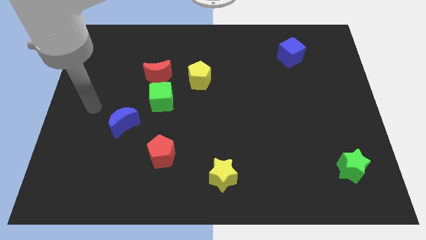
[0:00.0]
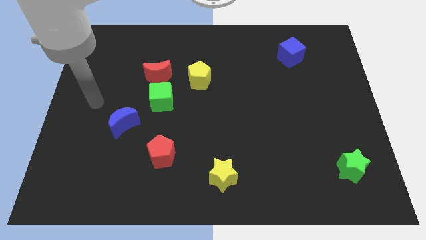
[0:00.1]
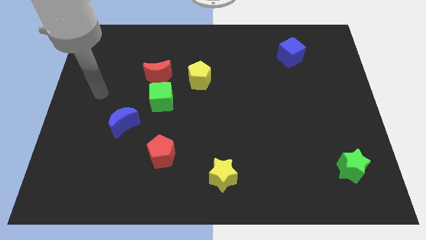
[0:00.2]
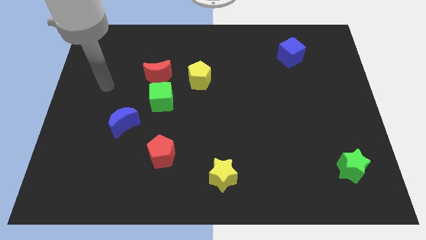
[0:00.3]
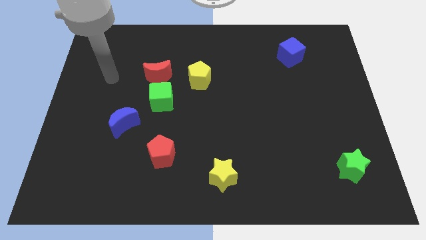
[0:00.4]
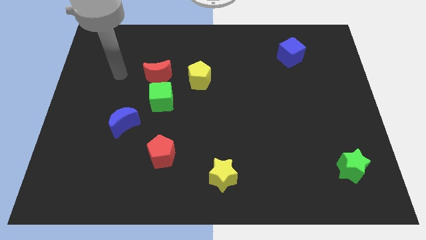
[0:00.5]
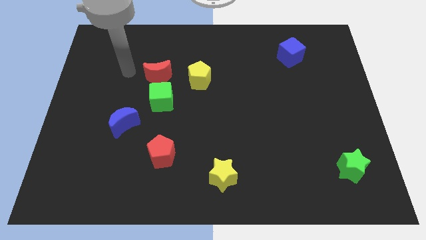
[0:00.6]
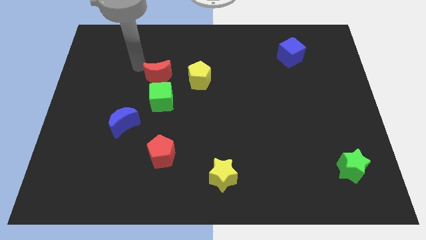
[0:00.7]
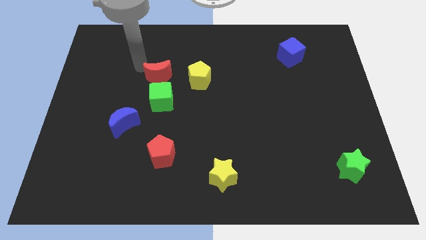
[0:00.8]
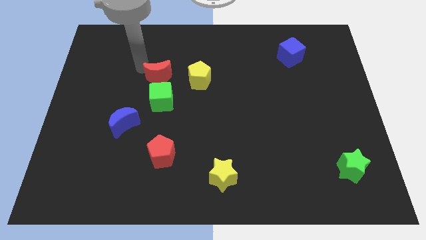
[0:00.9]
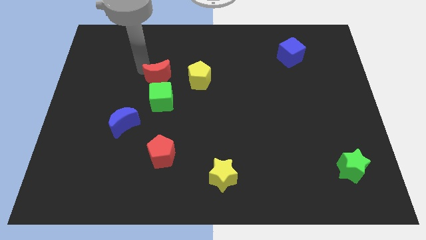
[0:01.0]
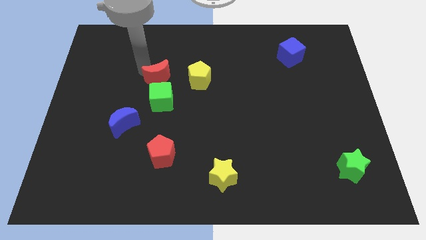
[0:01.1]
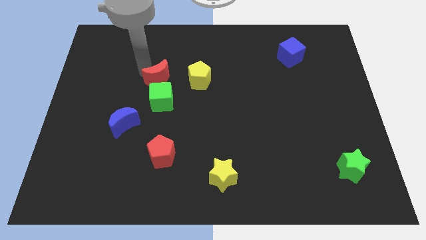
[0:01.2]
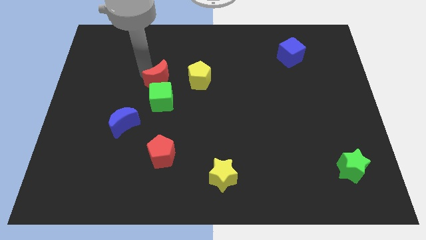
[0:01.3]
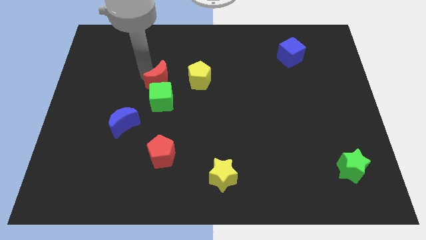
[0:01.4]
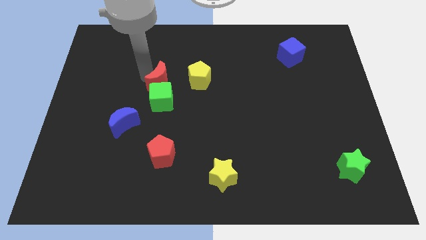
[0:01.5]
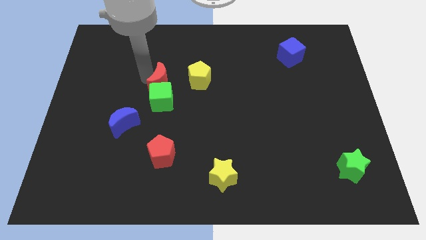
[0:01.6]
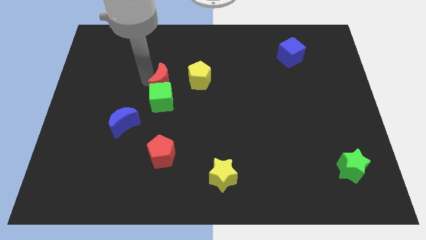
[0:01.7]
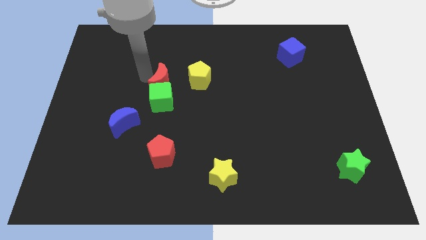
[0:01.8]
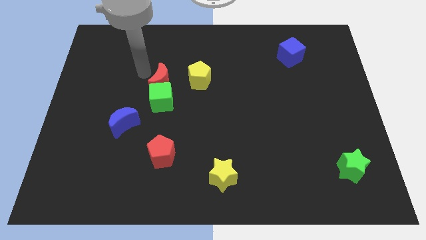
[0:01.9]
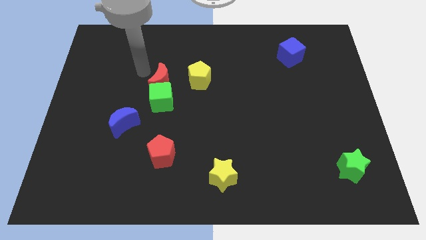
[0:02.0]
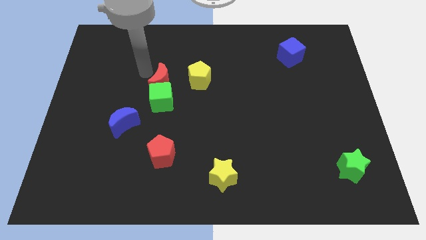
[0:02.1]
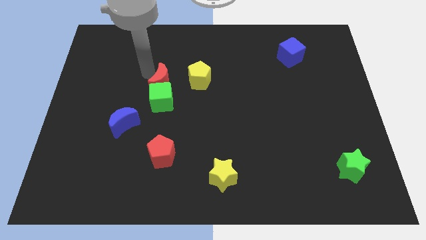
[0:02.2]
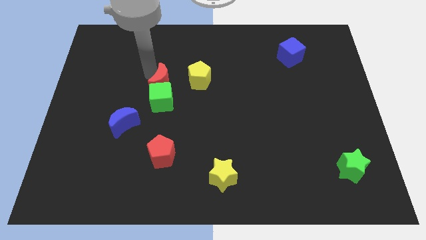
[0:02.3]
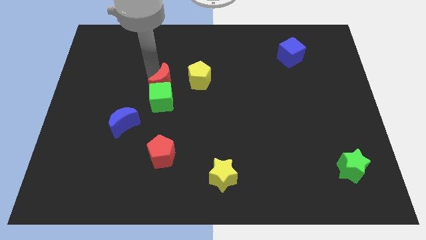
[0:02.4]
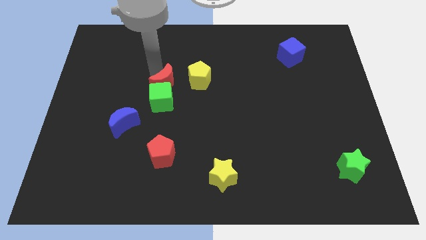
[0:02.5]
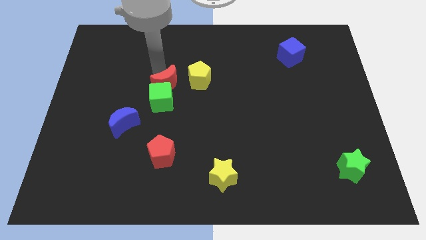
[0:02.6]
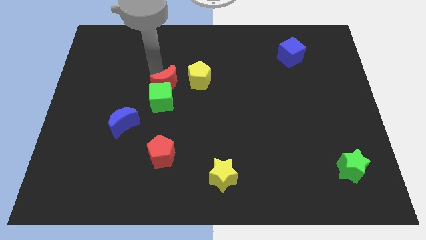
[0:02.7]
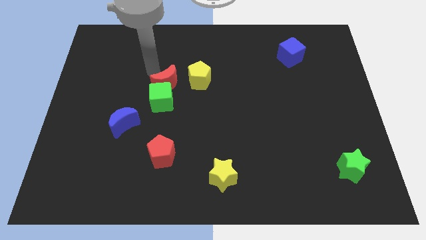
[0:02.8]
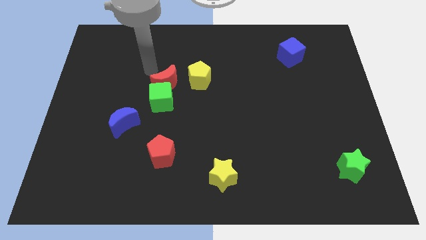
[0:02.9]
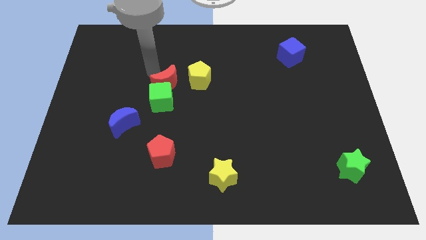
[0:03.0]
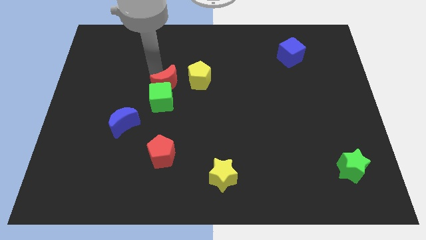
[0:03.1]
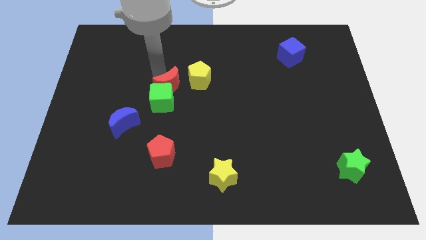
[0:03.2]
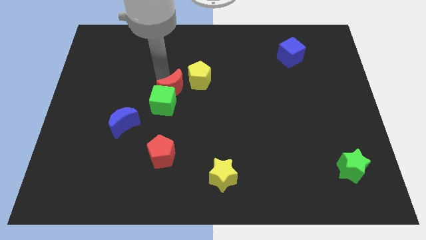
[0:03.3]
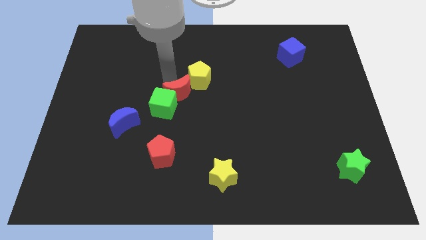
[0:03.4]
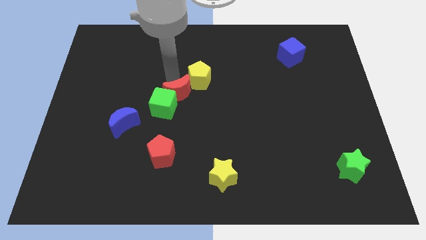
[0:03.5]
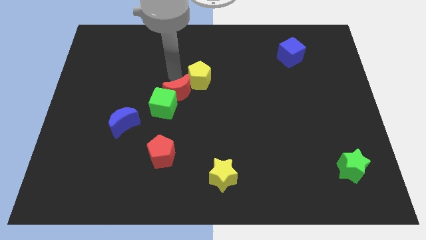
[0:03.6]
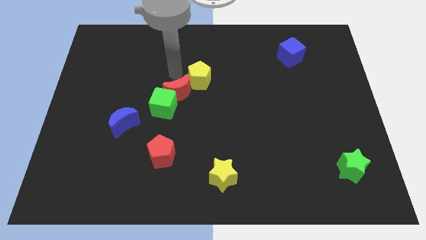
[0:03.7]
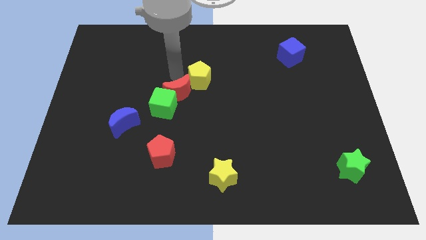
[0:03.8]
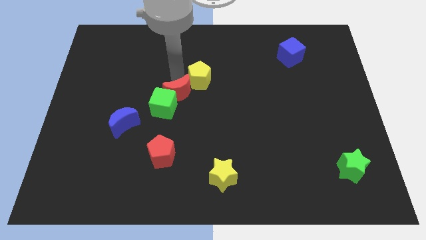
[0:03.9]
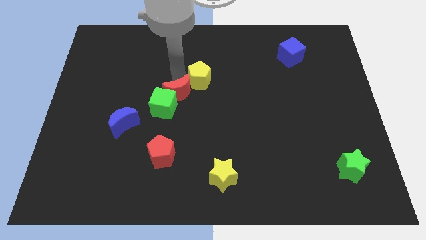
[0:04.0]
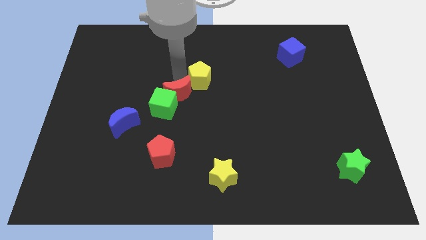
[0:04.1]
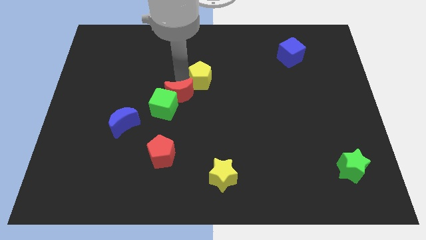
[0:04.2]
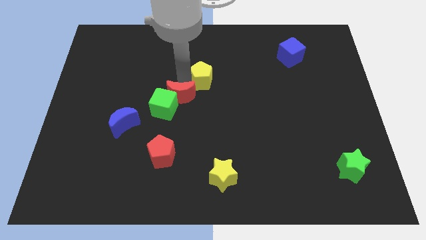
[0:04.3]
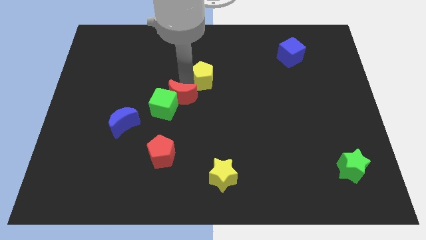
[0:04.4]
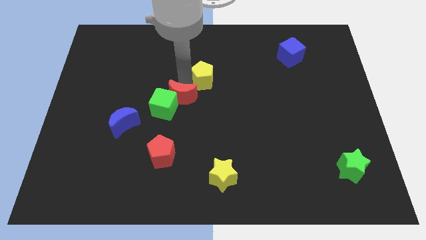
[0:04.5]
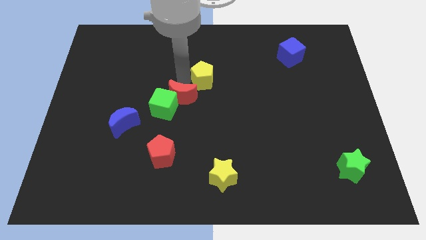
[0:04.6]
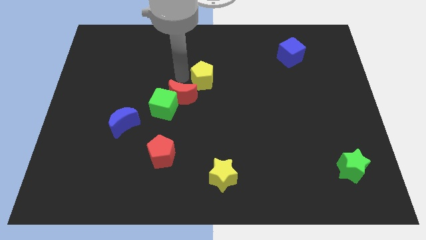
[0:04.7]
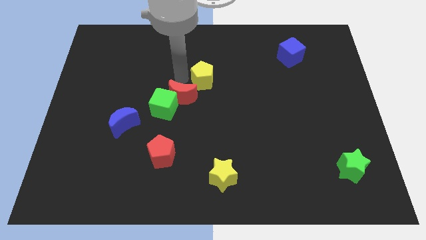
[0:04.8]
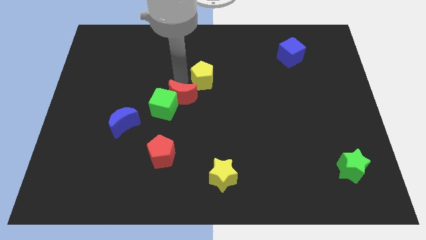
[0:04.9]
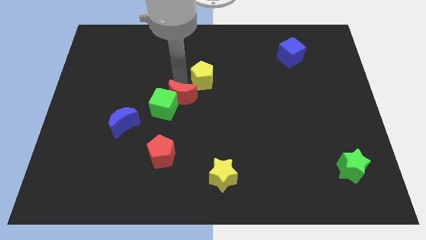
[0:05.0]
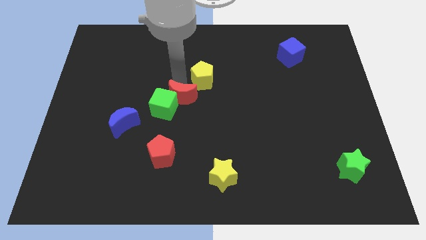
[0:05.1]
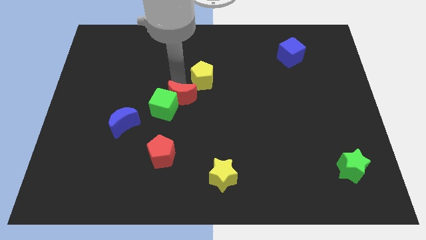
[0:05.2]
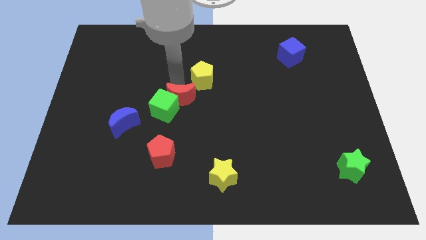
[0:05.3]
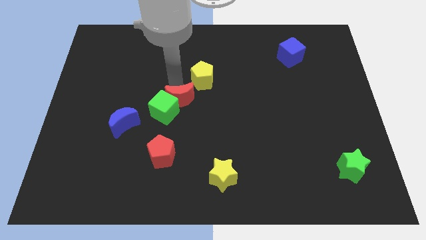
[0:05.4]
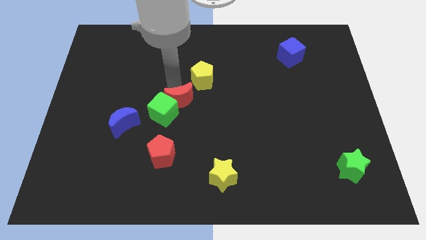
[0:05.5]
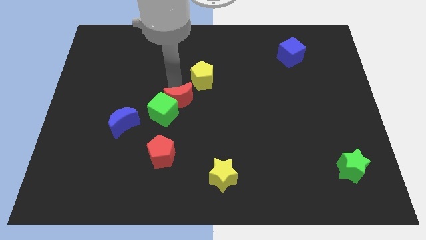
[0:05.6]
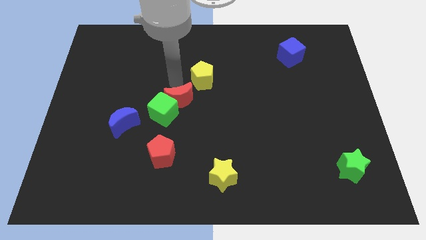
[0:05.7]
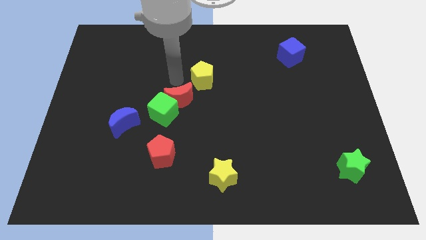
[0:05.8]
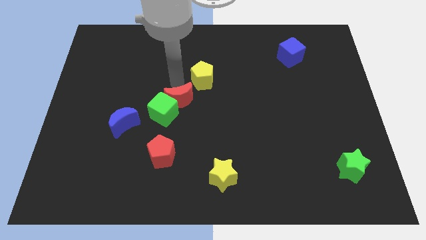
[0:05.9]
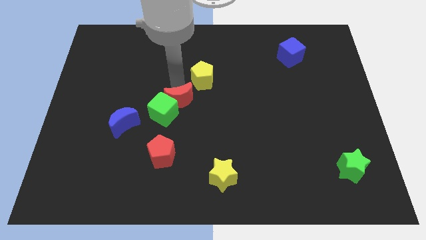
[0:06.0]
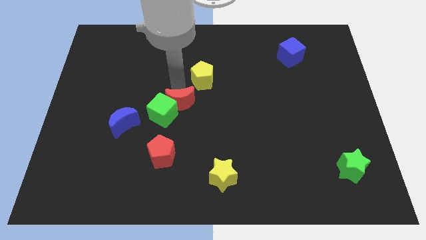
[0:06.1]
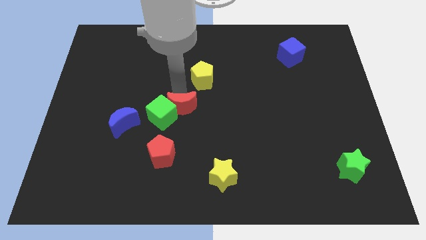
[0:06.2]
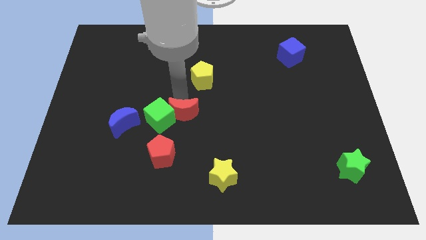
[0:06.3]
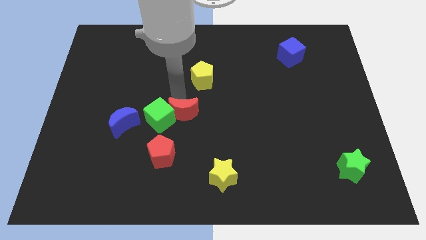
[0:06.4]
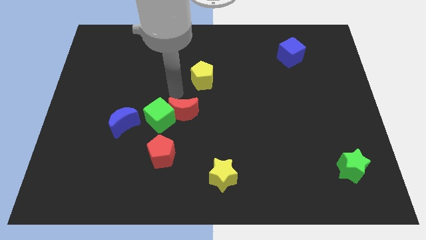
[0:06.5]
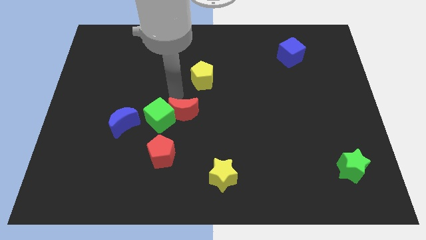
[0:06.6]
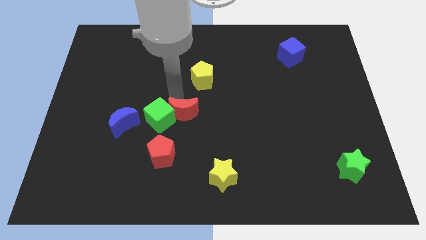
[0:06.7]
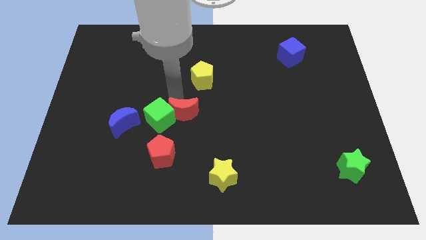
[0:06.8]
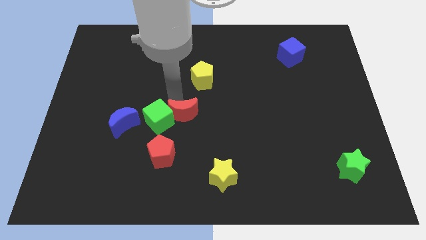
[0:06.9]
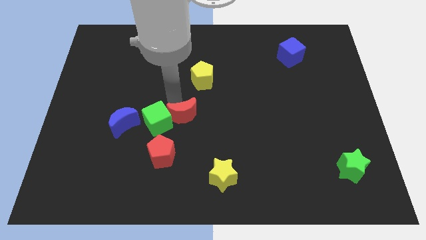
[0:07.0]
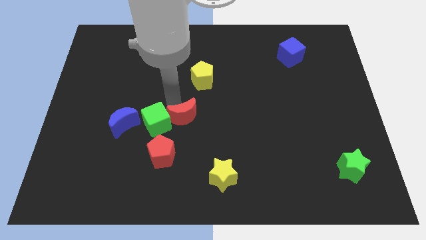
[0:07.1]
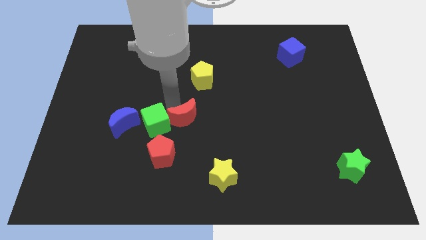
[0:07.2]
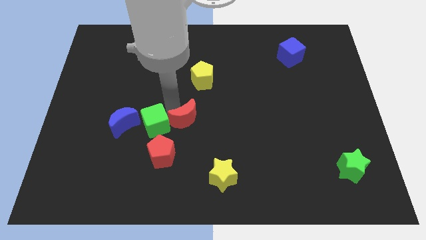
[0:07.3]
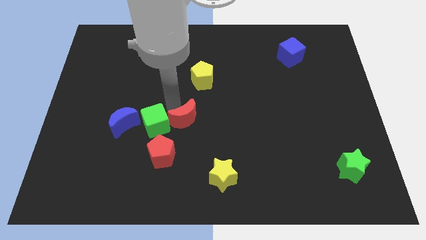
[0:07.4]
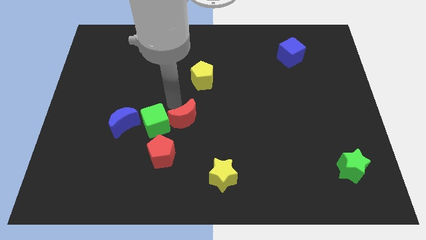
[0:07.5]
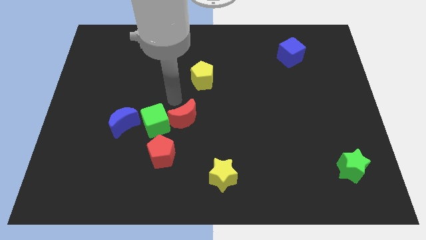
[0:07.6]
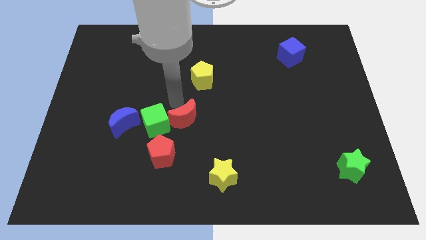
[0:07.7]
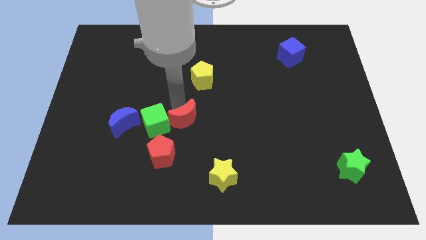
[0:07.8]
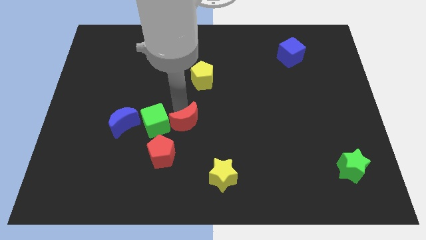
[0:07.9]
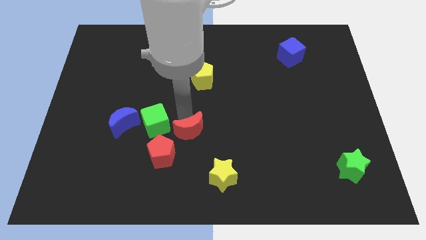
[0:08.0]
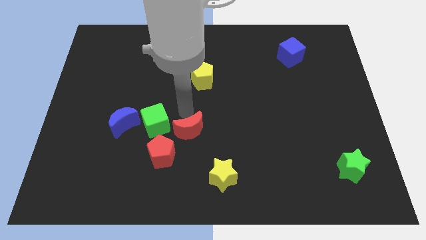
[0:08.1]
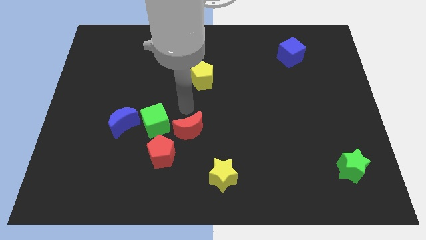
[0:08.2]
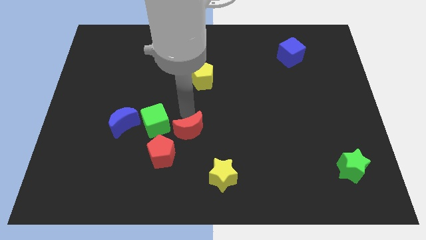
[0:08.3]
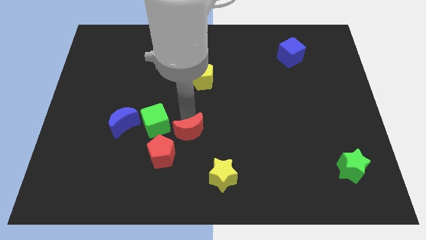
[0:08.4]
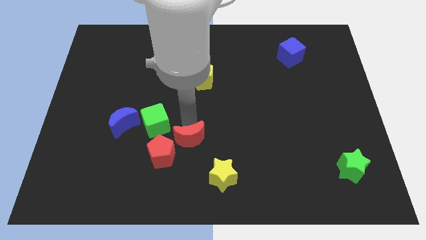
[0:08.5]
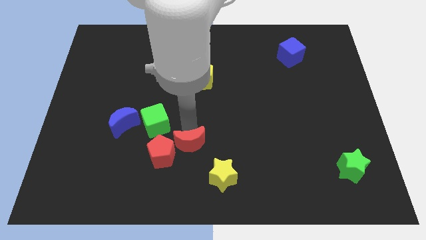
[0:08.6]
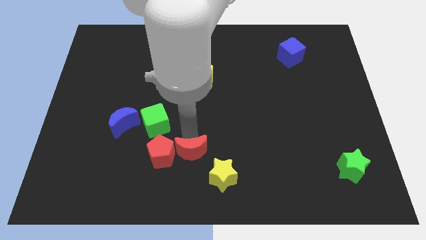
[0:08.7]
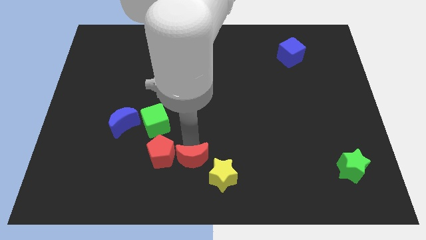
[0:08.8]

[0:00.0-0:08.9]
slide the red moon to the bottom side
